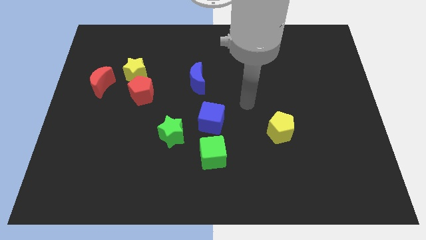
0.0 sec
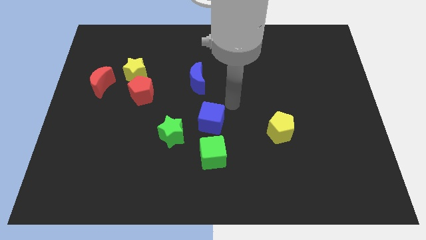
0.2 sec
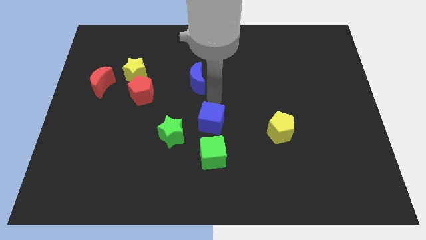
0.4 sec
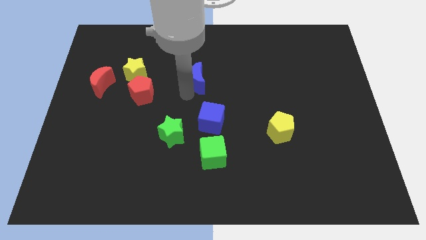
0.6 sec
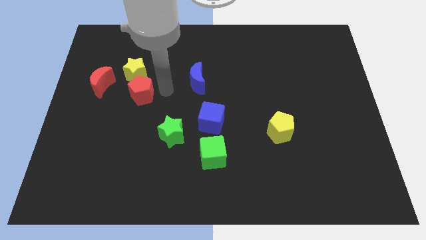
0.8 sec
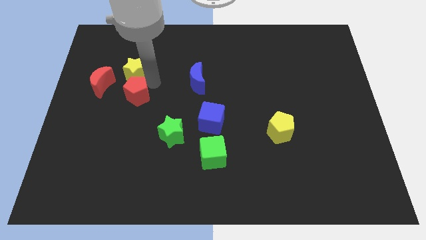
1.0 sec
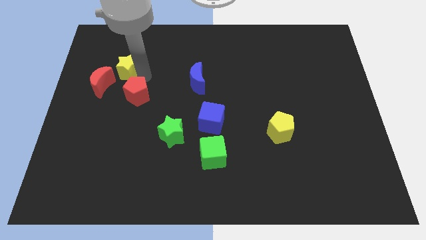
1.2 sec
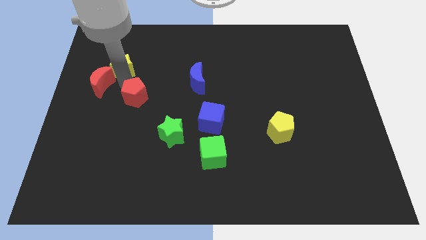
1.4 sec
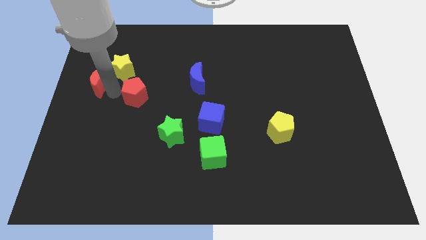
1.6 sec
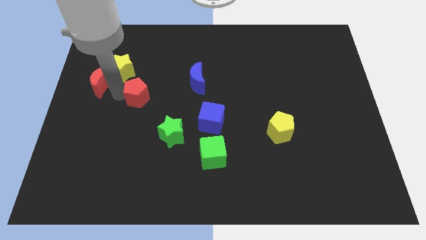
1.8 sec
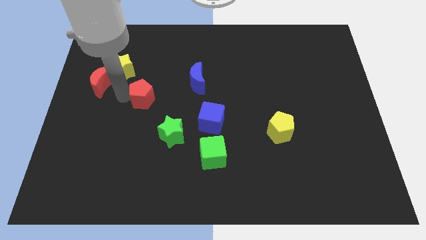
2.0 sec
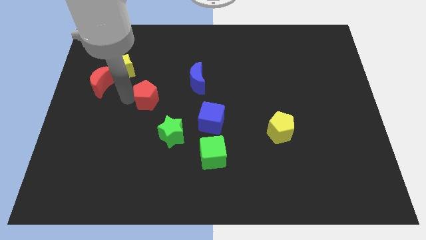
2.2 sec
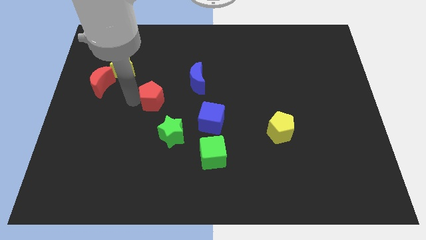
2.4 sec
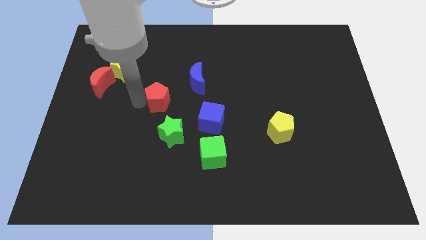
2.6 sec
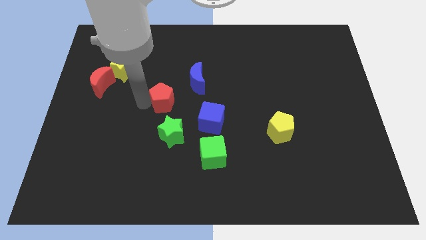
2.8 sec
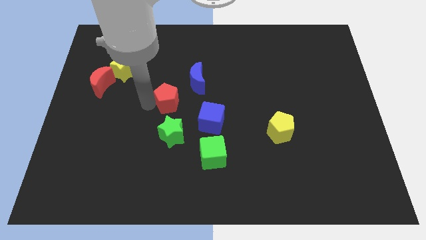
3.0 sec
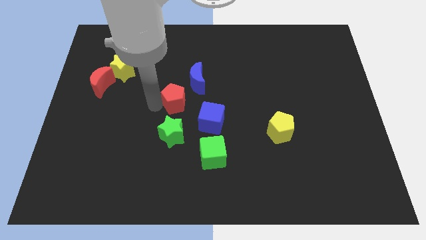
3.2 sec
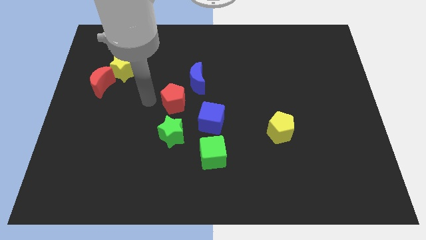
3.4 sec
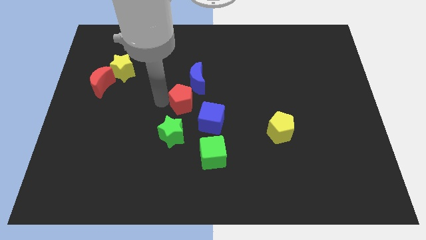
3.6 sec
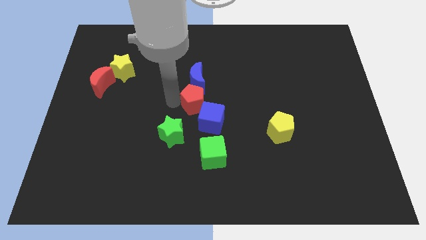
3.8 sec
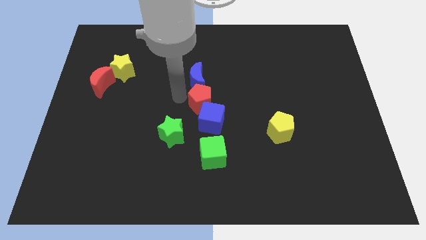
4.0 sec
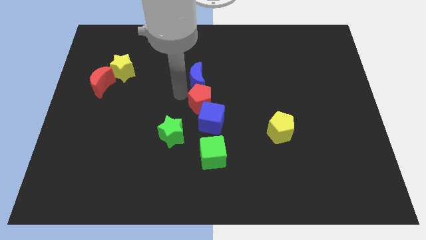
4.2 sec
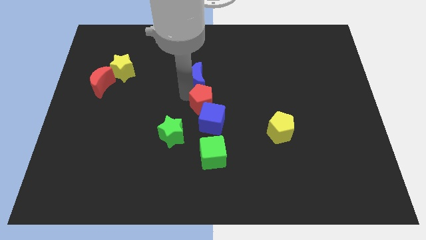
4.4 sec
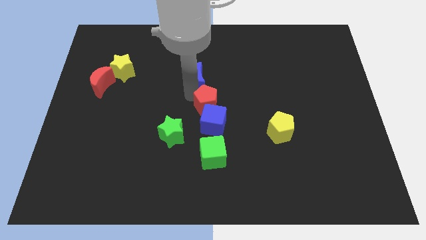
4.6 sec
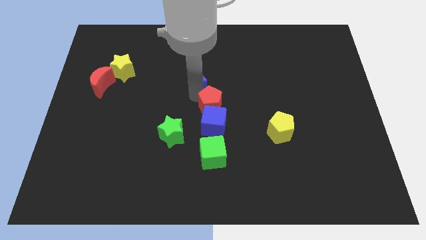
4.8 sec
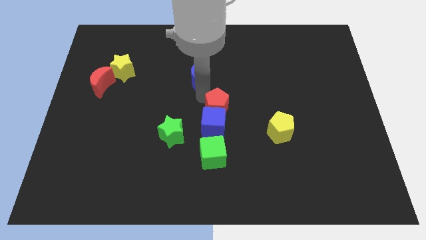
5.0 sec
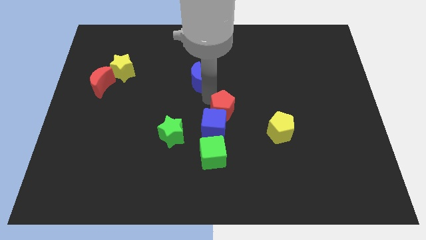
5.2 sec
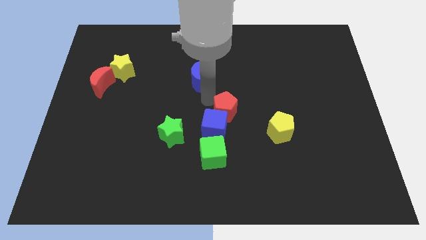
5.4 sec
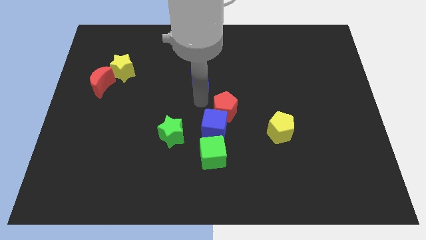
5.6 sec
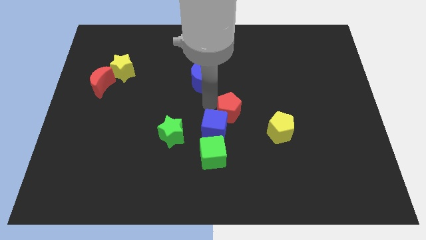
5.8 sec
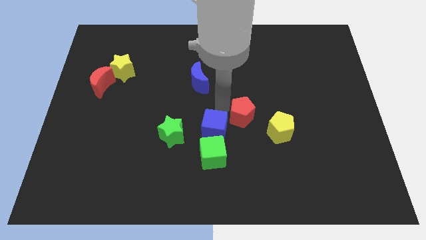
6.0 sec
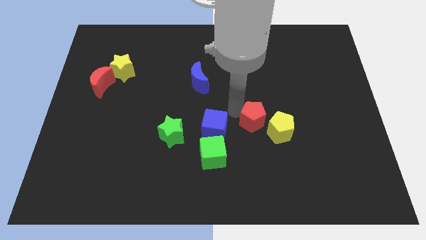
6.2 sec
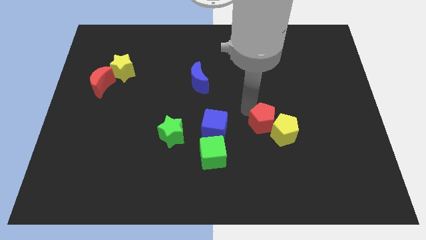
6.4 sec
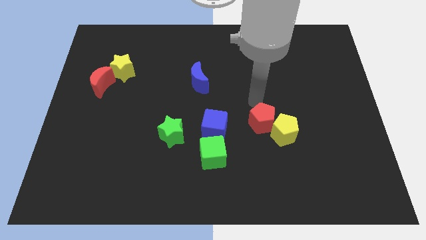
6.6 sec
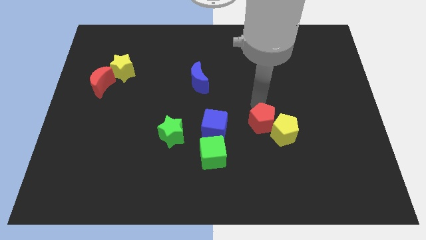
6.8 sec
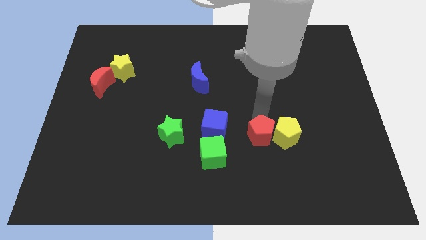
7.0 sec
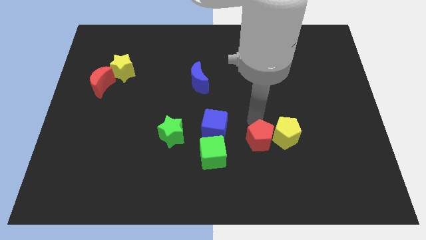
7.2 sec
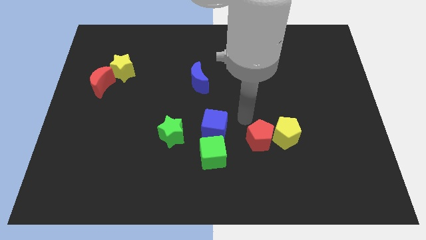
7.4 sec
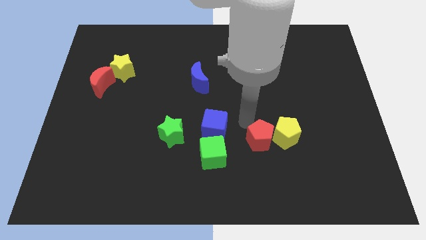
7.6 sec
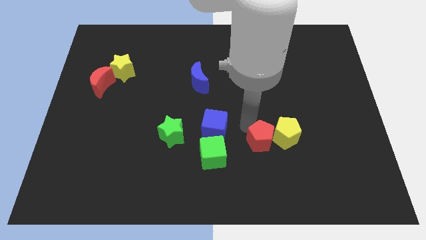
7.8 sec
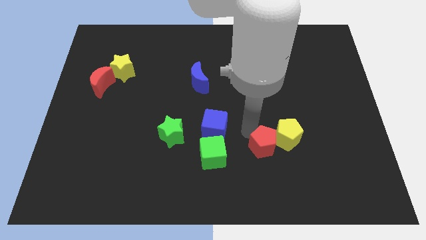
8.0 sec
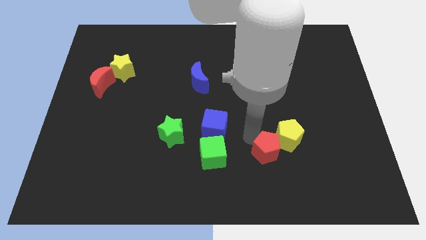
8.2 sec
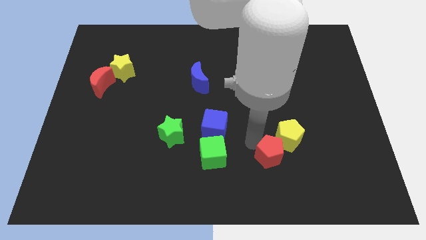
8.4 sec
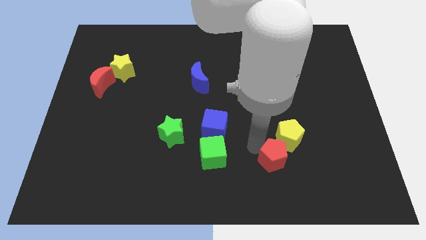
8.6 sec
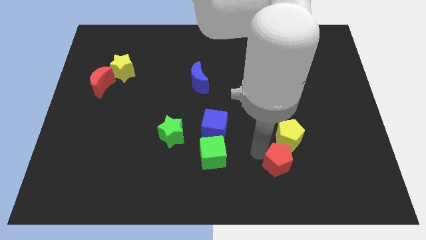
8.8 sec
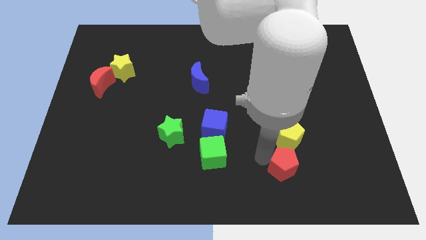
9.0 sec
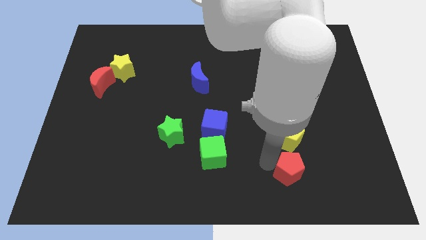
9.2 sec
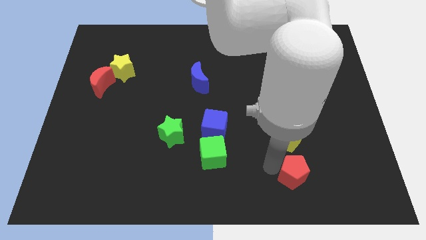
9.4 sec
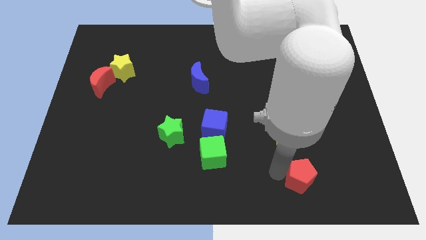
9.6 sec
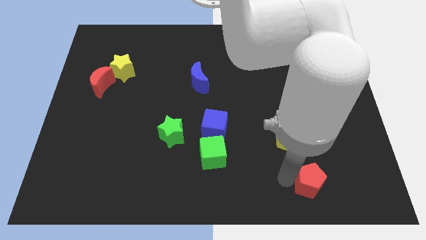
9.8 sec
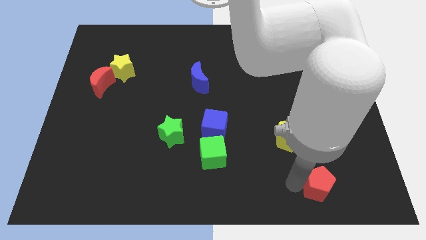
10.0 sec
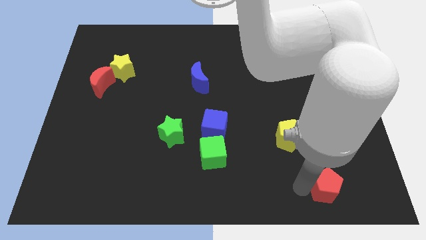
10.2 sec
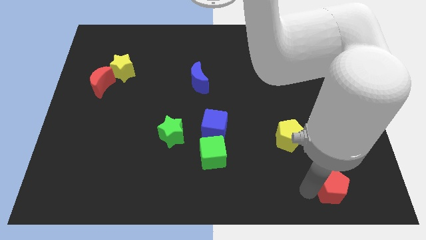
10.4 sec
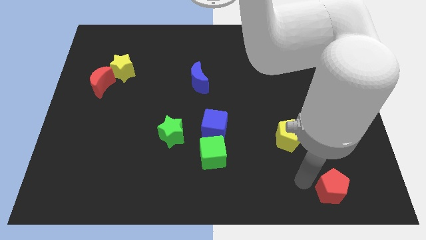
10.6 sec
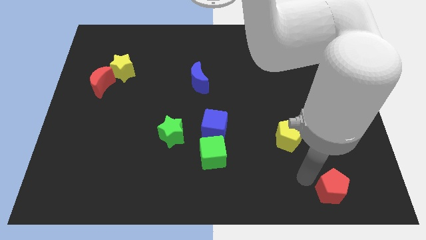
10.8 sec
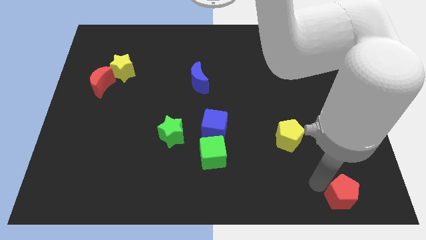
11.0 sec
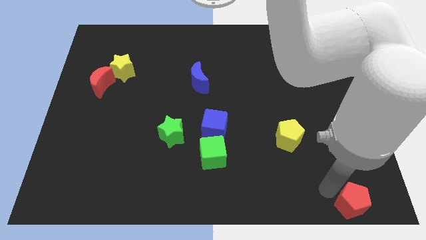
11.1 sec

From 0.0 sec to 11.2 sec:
slide the red pentagon to the bottom right corner
